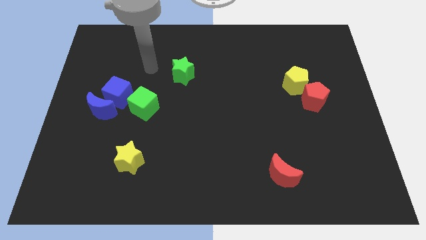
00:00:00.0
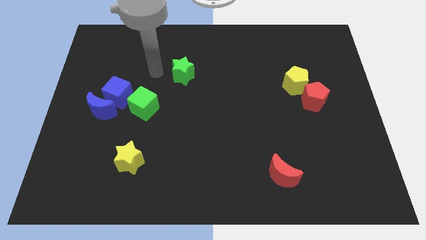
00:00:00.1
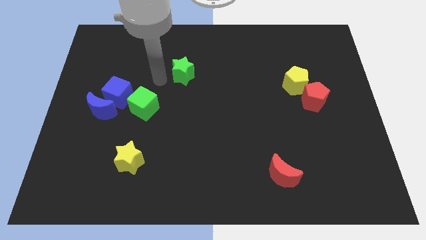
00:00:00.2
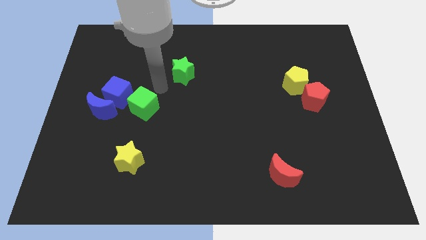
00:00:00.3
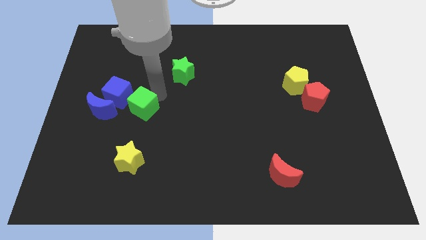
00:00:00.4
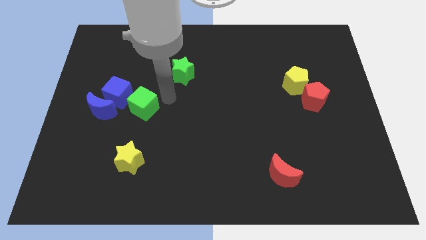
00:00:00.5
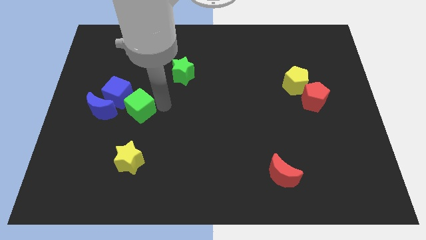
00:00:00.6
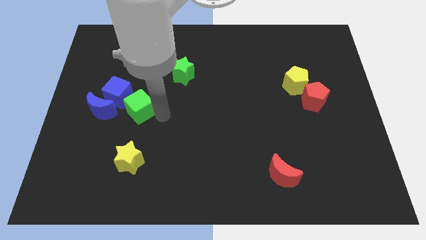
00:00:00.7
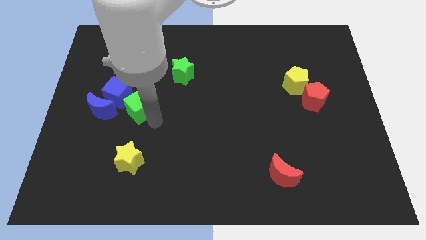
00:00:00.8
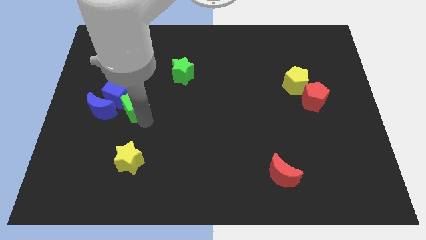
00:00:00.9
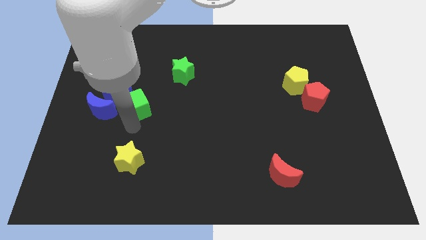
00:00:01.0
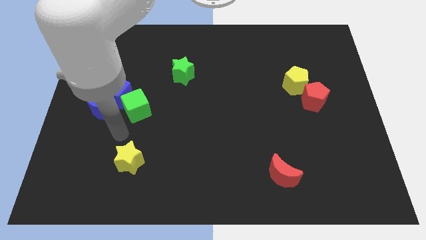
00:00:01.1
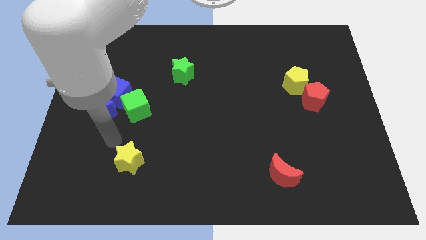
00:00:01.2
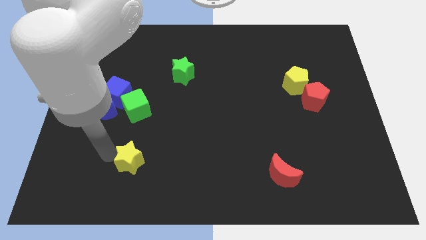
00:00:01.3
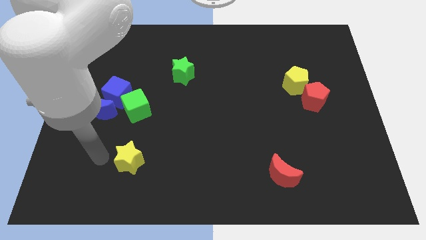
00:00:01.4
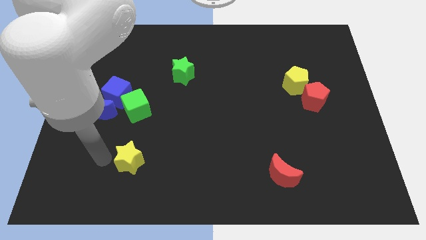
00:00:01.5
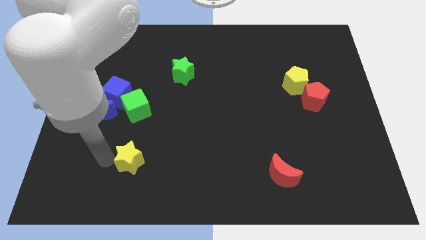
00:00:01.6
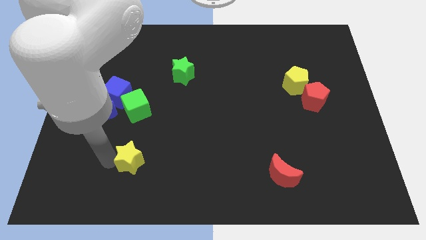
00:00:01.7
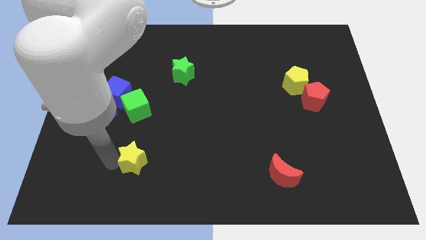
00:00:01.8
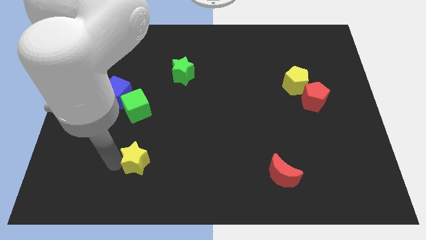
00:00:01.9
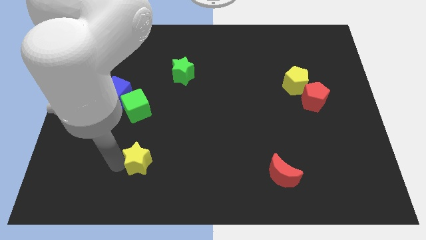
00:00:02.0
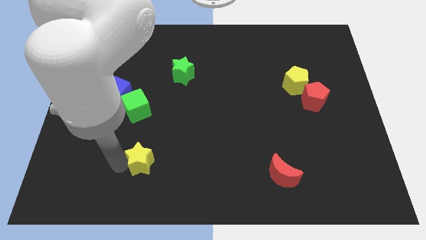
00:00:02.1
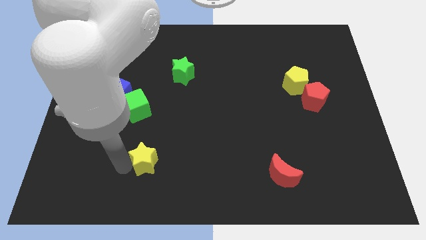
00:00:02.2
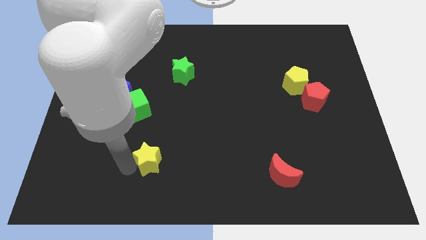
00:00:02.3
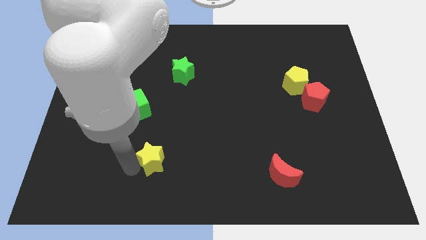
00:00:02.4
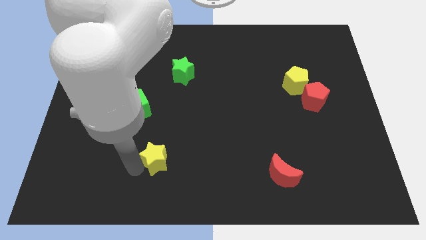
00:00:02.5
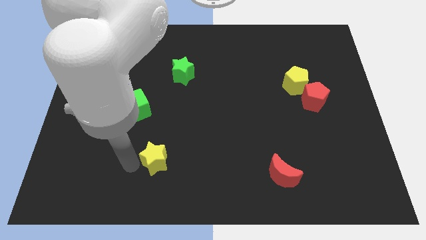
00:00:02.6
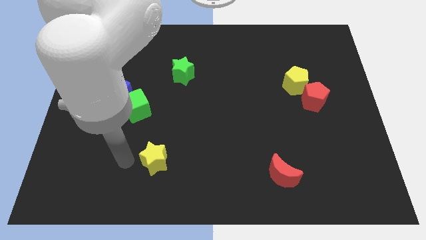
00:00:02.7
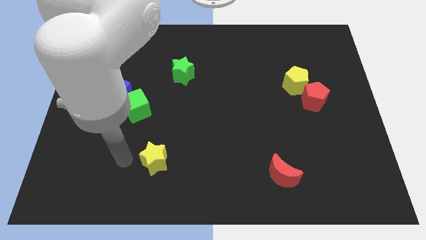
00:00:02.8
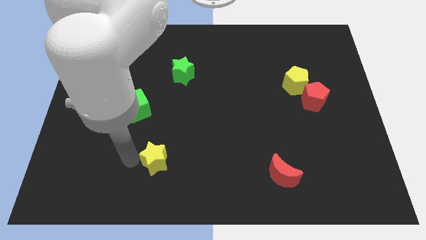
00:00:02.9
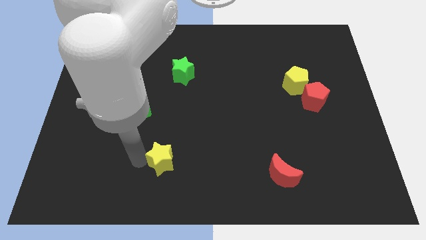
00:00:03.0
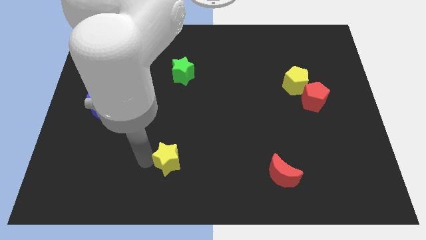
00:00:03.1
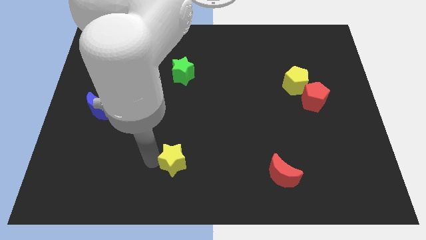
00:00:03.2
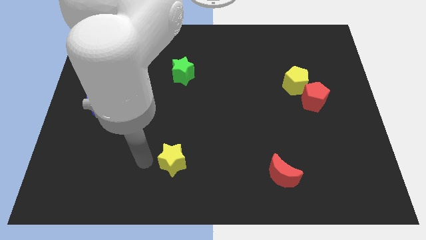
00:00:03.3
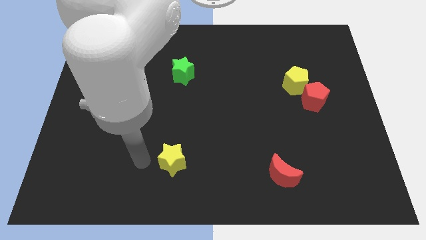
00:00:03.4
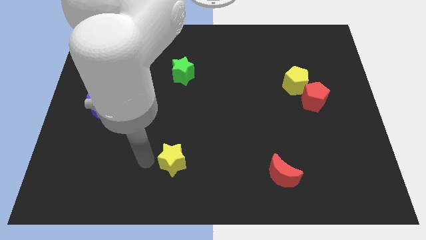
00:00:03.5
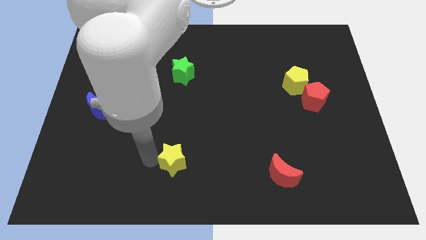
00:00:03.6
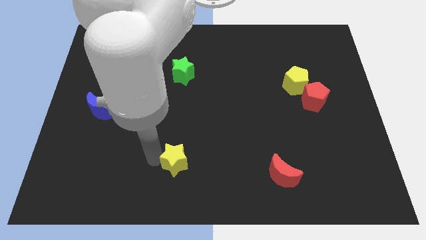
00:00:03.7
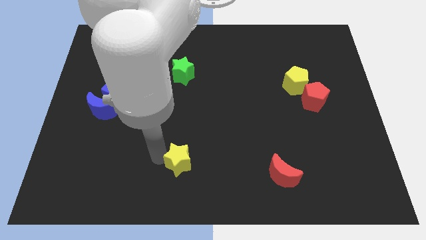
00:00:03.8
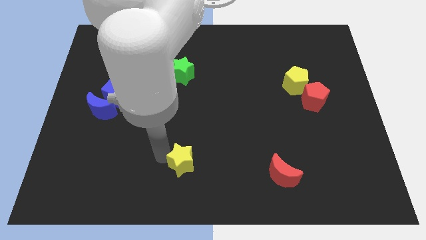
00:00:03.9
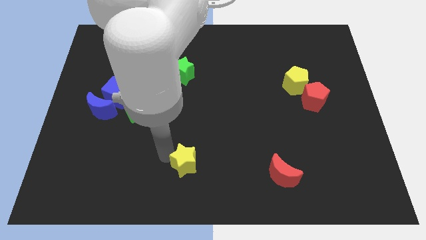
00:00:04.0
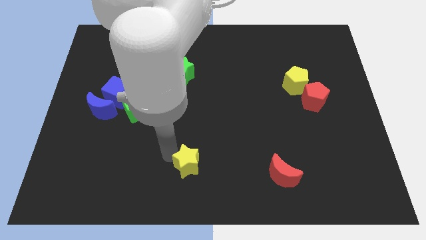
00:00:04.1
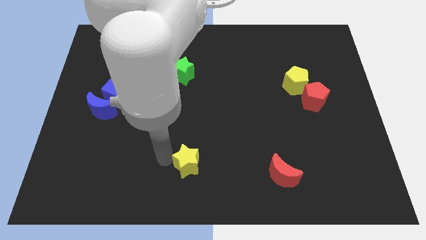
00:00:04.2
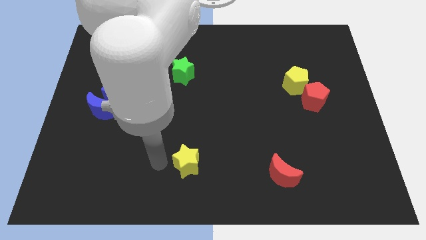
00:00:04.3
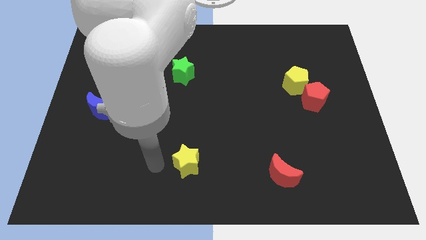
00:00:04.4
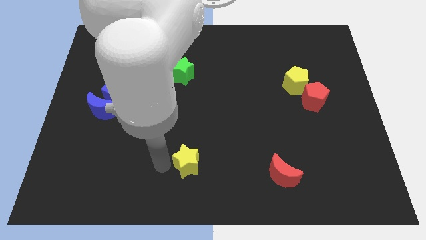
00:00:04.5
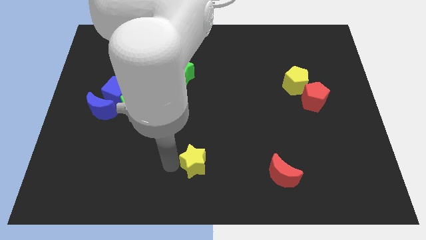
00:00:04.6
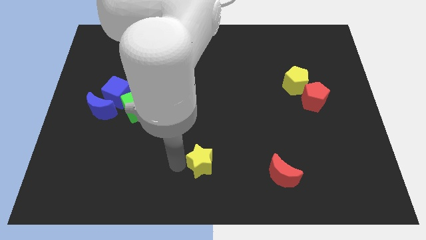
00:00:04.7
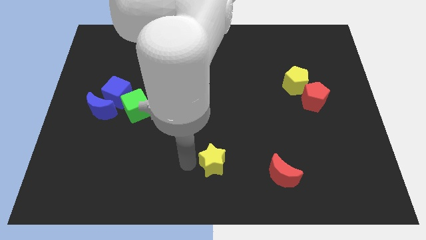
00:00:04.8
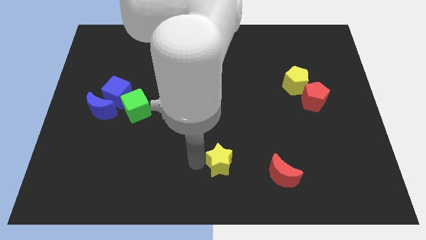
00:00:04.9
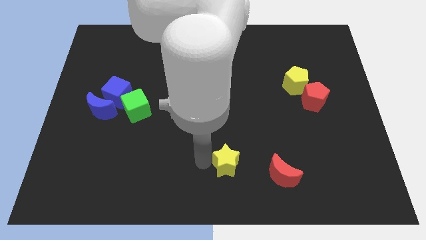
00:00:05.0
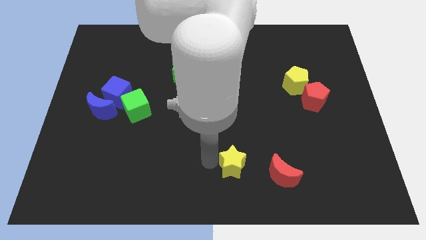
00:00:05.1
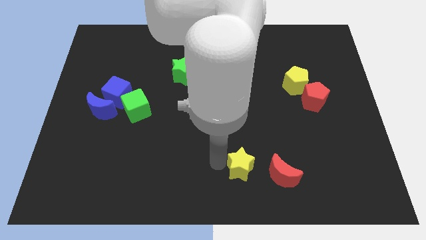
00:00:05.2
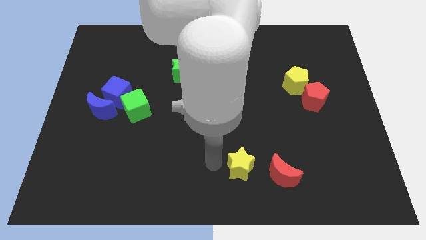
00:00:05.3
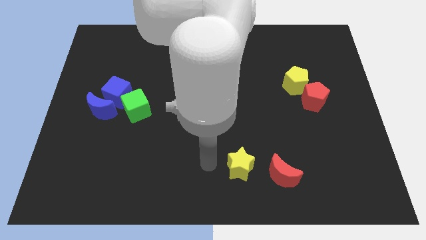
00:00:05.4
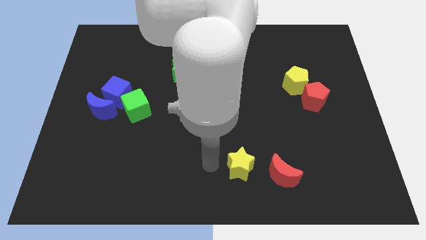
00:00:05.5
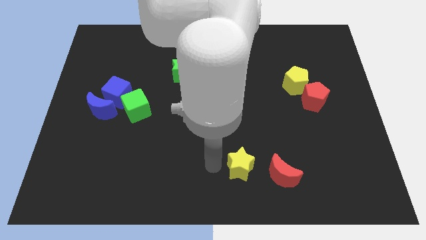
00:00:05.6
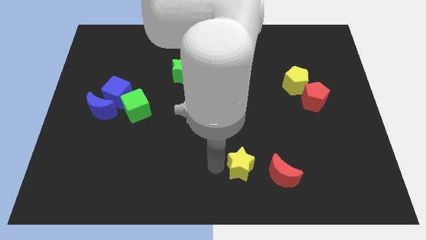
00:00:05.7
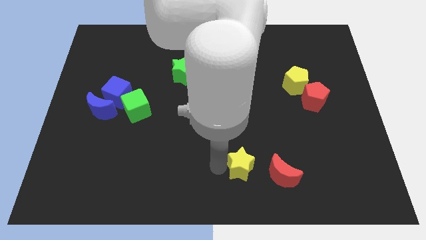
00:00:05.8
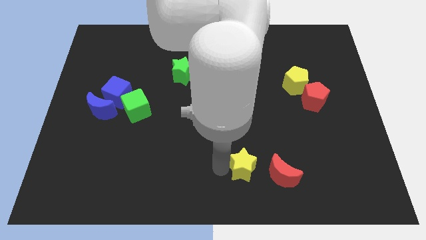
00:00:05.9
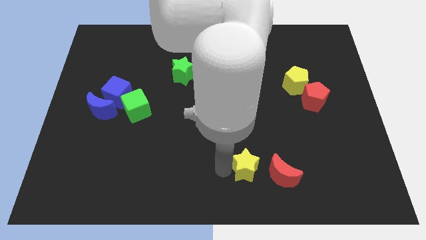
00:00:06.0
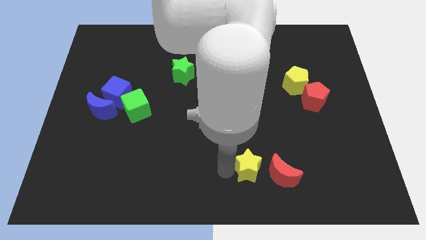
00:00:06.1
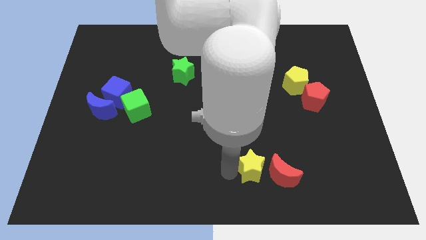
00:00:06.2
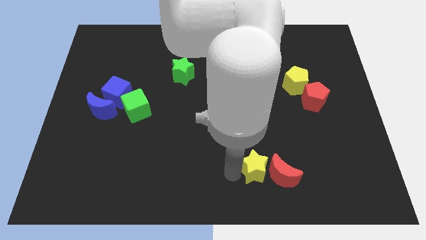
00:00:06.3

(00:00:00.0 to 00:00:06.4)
slide the yellow star to the red moon

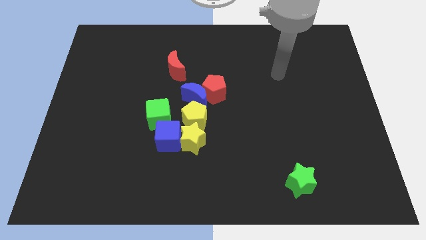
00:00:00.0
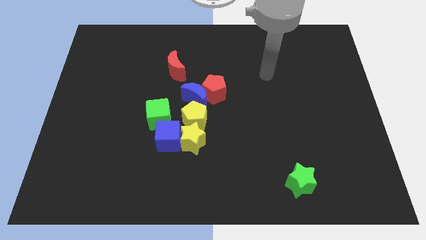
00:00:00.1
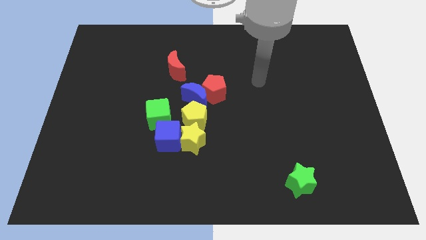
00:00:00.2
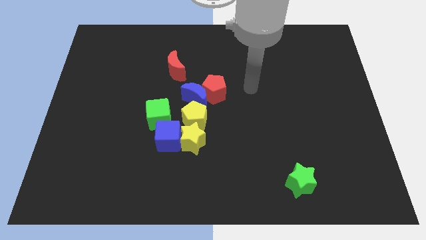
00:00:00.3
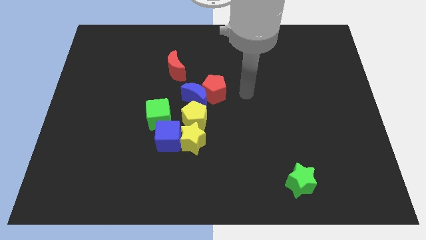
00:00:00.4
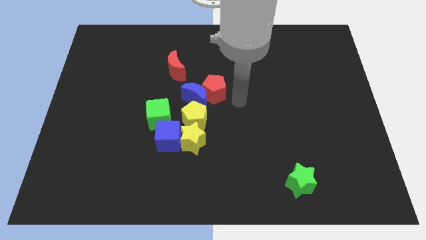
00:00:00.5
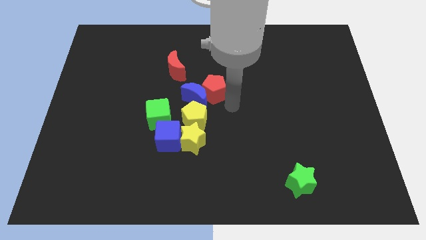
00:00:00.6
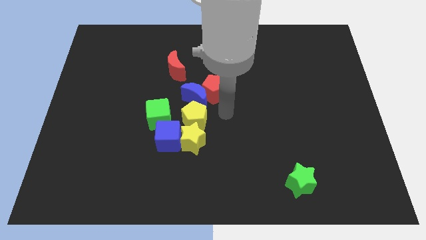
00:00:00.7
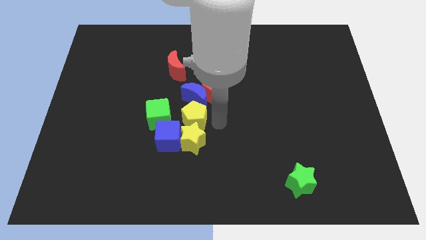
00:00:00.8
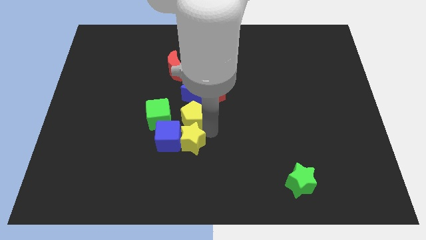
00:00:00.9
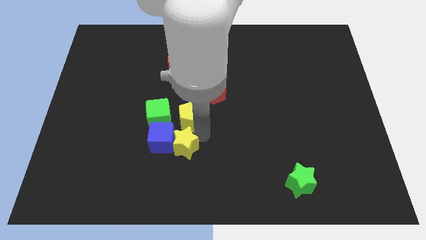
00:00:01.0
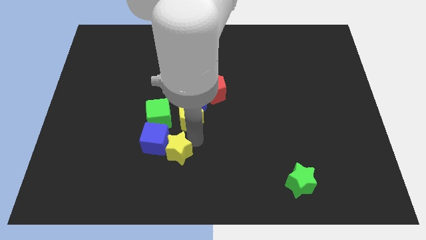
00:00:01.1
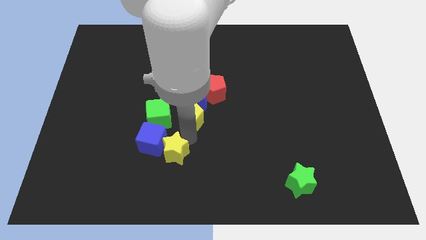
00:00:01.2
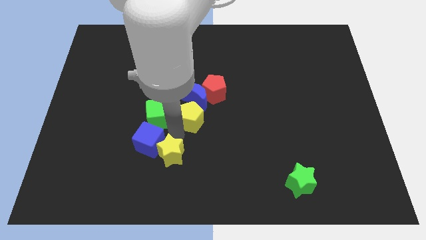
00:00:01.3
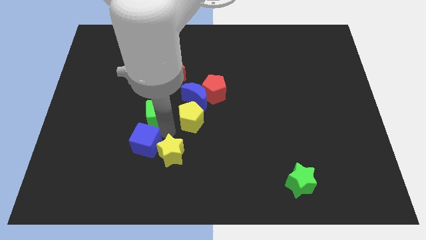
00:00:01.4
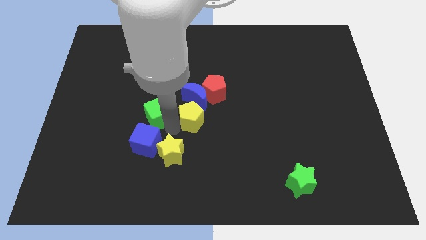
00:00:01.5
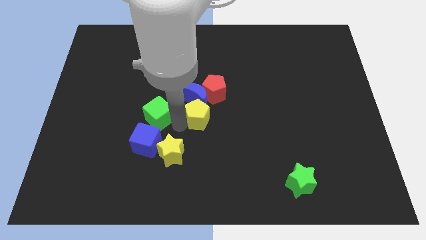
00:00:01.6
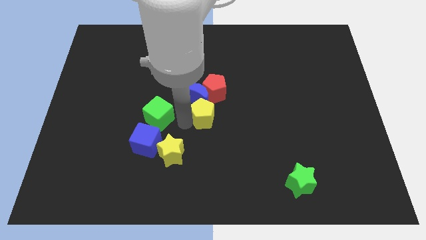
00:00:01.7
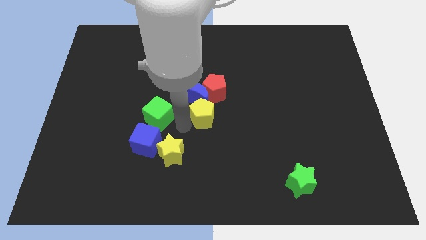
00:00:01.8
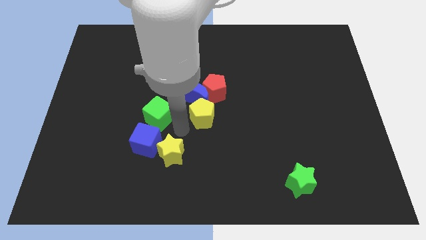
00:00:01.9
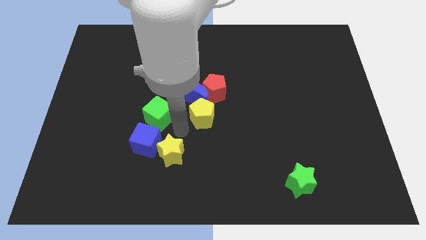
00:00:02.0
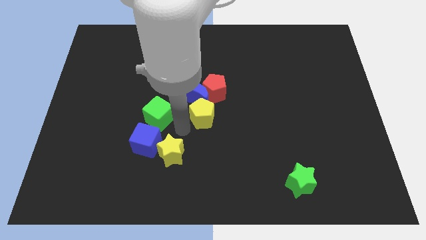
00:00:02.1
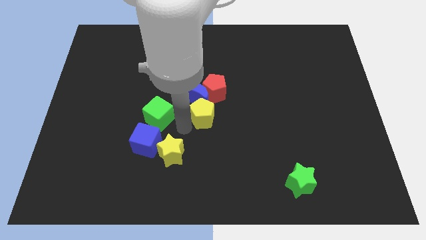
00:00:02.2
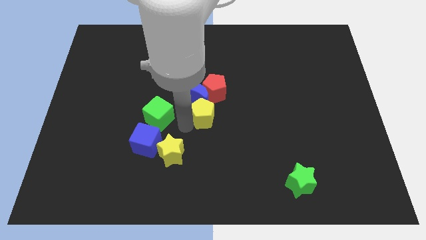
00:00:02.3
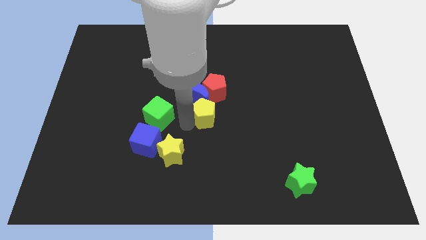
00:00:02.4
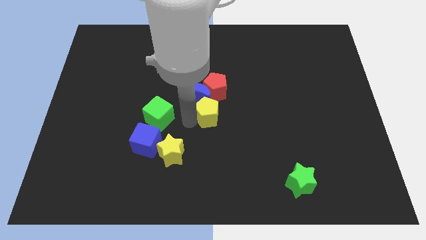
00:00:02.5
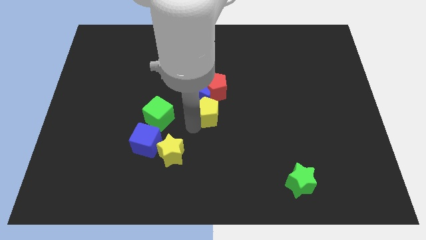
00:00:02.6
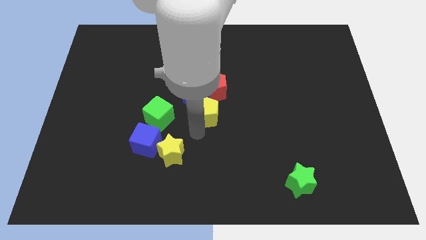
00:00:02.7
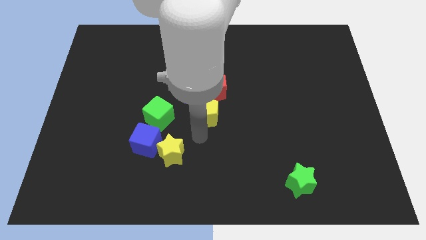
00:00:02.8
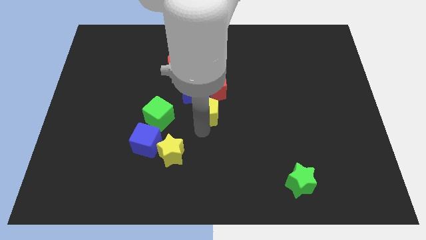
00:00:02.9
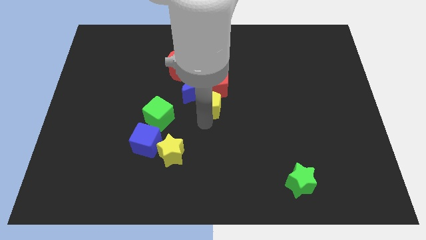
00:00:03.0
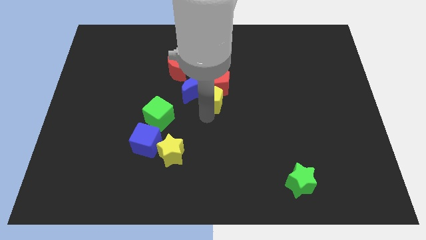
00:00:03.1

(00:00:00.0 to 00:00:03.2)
slide the yellow pentagon towards the red pentagon
